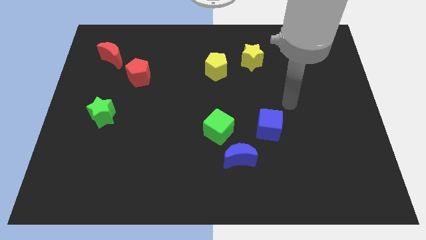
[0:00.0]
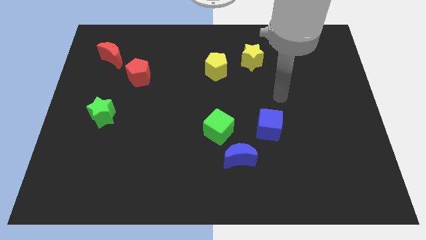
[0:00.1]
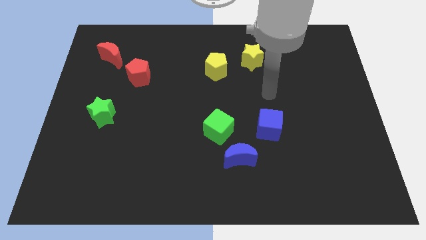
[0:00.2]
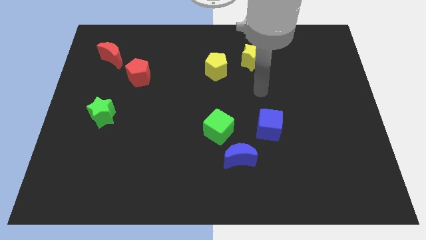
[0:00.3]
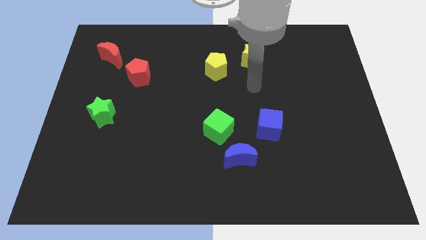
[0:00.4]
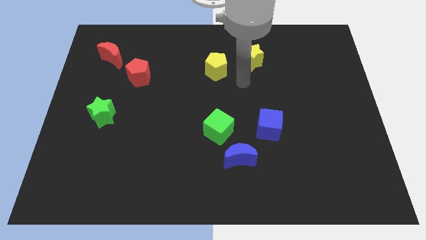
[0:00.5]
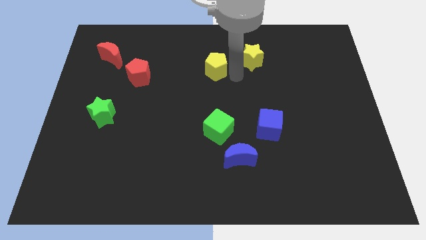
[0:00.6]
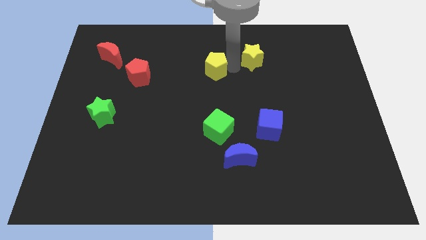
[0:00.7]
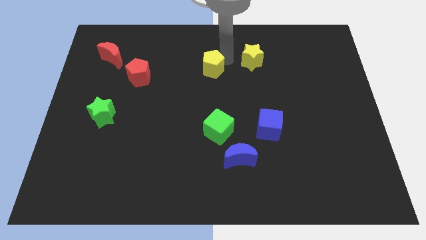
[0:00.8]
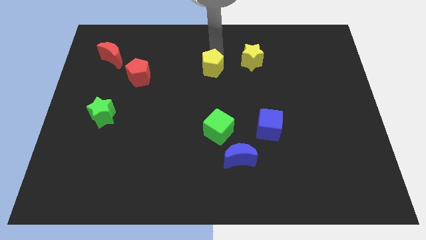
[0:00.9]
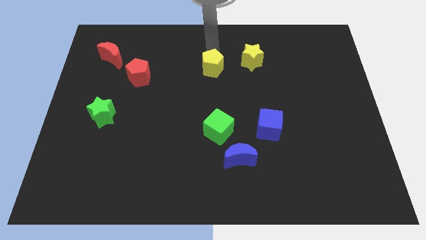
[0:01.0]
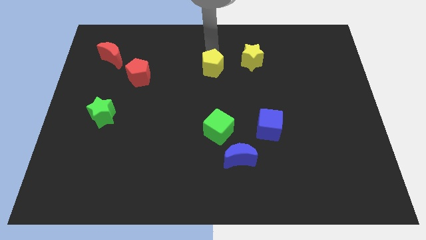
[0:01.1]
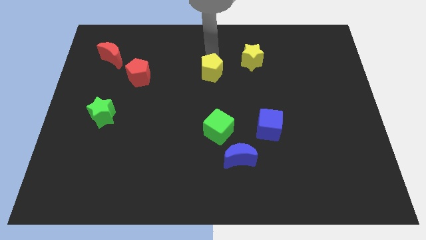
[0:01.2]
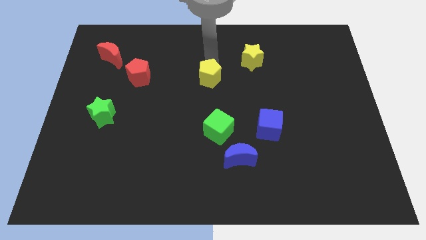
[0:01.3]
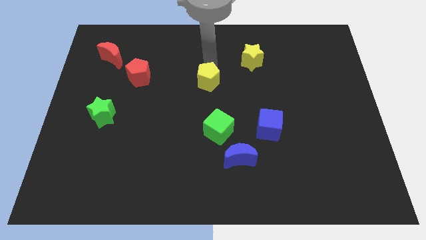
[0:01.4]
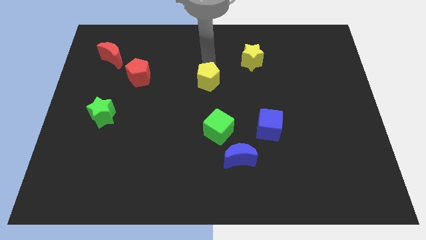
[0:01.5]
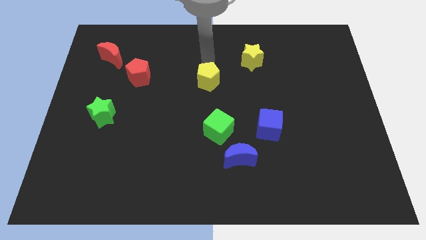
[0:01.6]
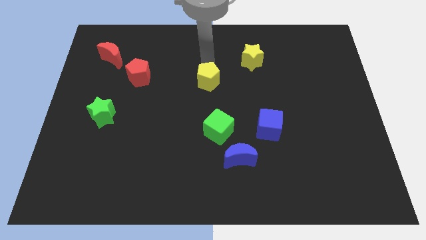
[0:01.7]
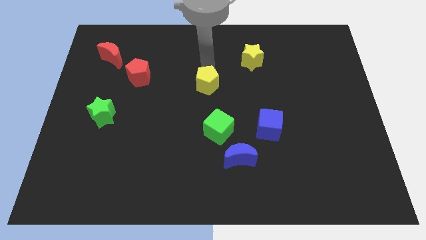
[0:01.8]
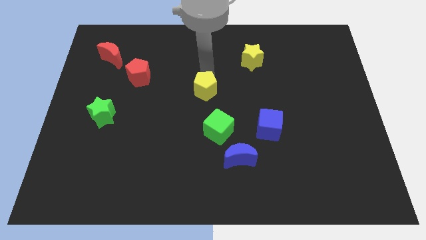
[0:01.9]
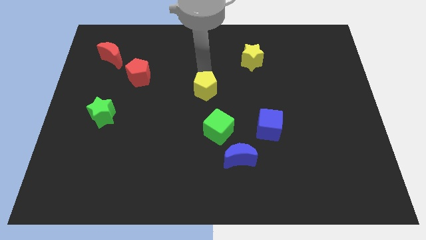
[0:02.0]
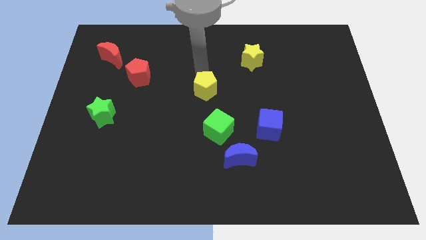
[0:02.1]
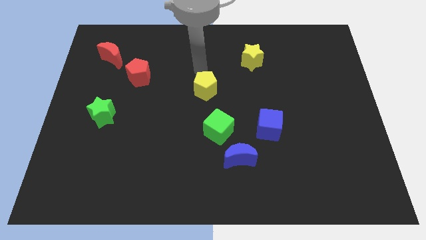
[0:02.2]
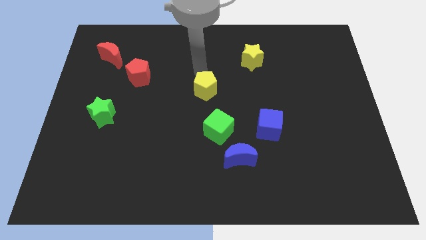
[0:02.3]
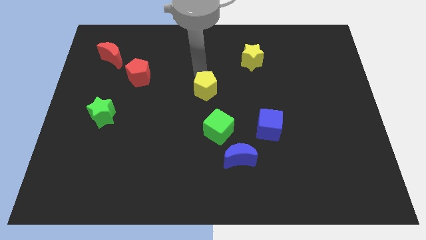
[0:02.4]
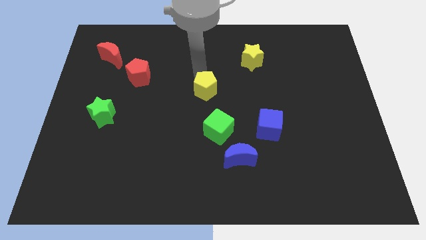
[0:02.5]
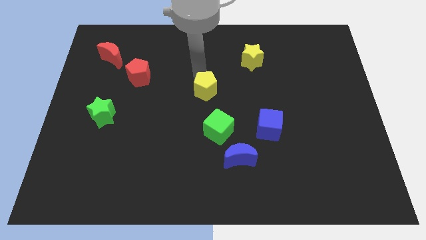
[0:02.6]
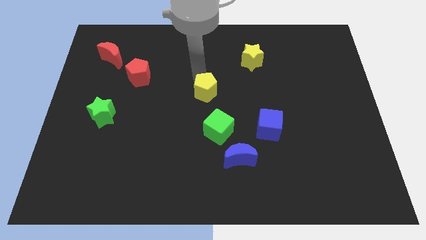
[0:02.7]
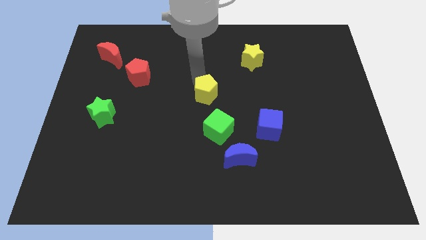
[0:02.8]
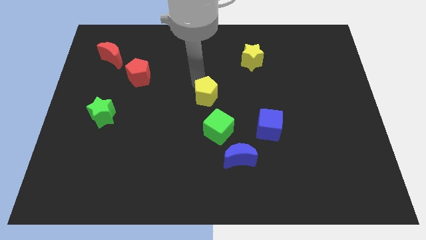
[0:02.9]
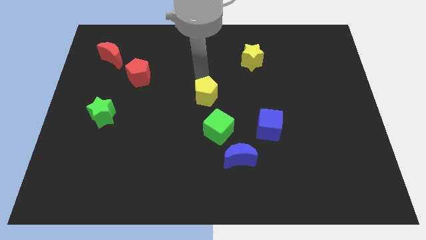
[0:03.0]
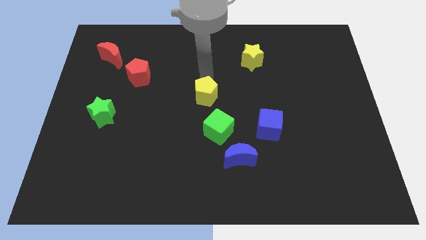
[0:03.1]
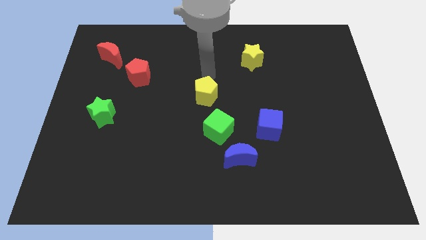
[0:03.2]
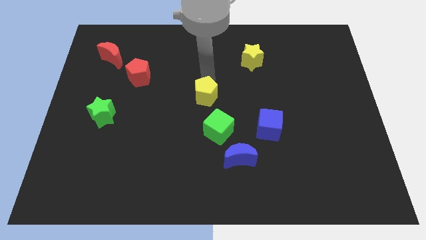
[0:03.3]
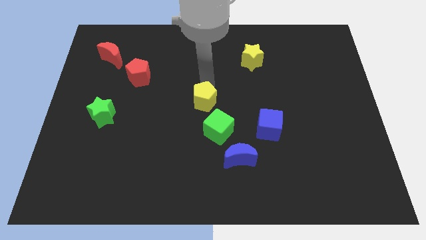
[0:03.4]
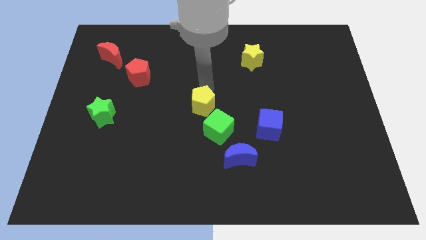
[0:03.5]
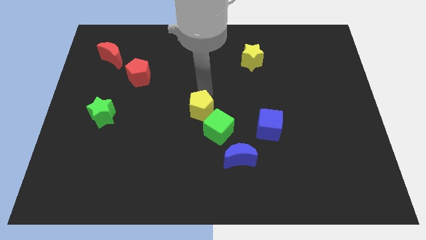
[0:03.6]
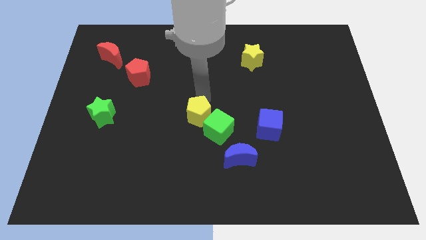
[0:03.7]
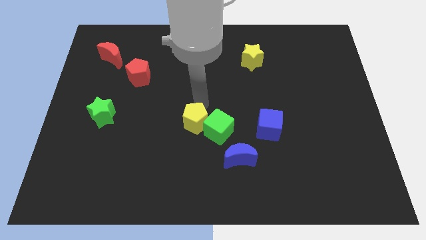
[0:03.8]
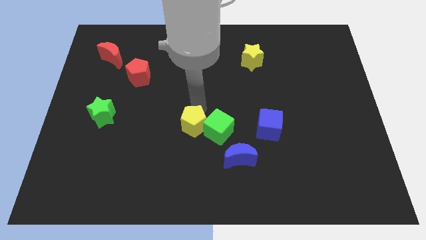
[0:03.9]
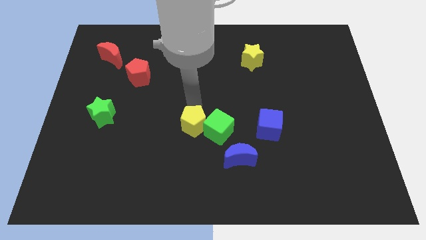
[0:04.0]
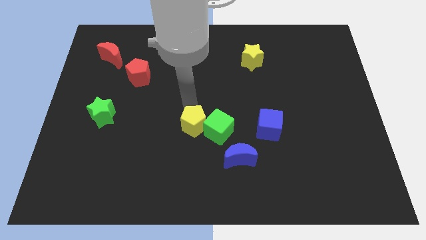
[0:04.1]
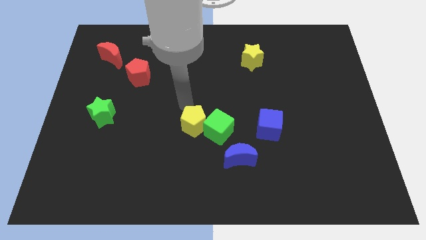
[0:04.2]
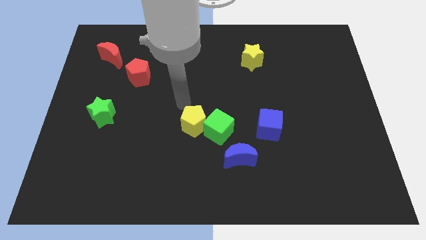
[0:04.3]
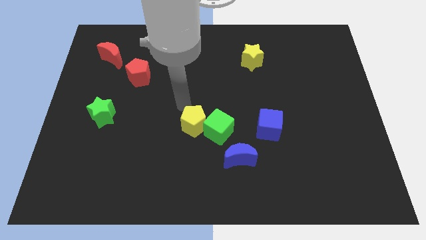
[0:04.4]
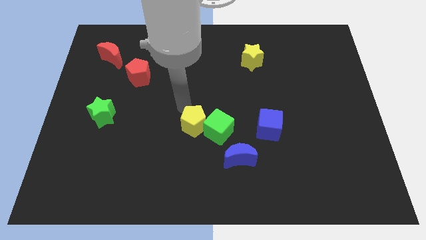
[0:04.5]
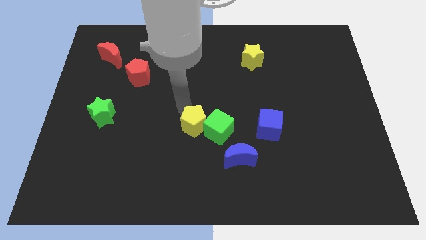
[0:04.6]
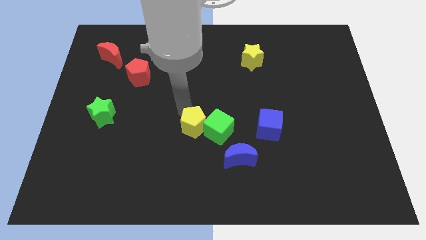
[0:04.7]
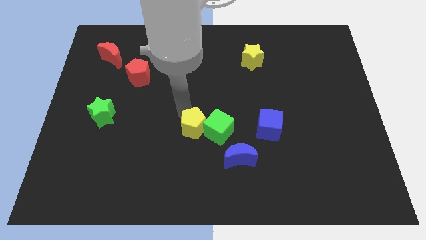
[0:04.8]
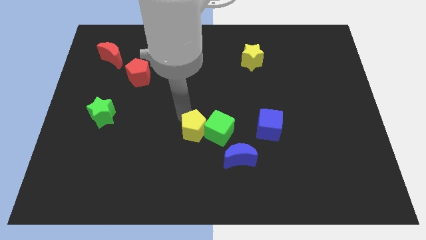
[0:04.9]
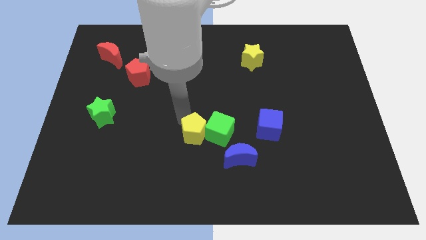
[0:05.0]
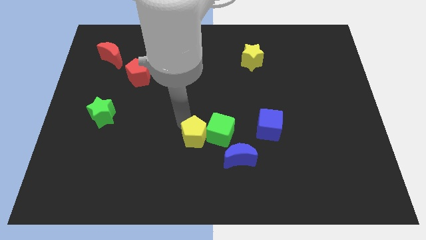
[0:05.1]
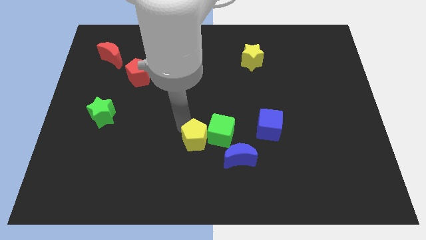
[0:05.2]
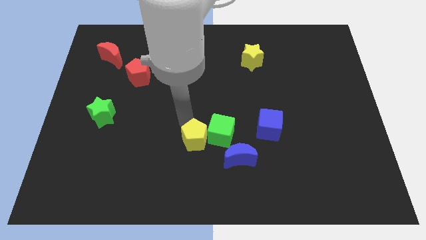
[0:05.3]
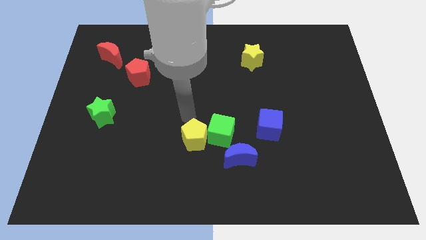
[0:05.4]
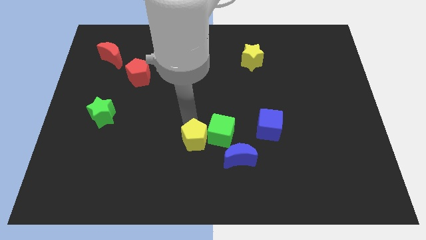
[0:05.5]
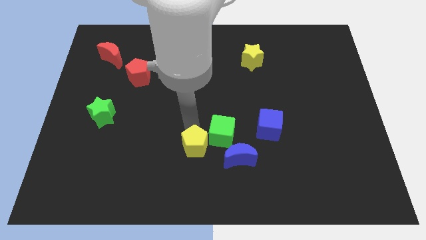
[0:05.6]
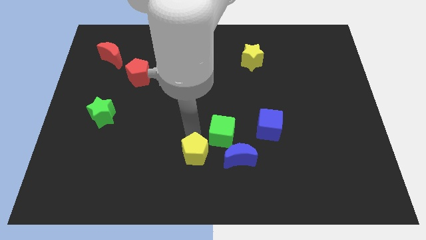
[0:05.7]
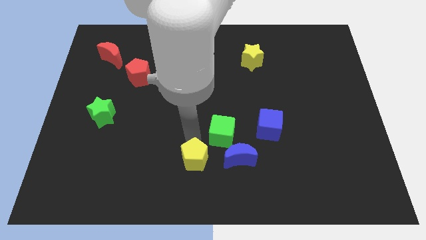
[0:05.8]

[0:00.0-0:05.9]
slide the yellow pentagon to the bottom side

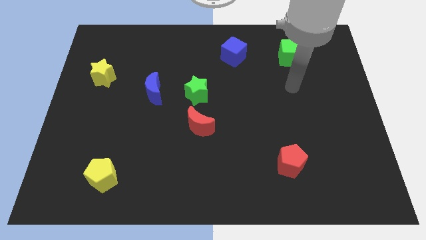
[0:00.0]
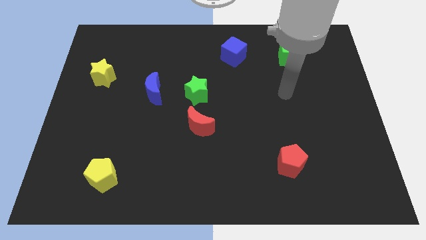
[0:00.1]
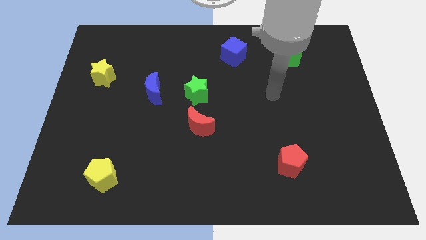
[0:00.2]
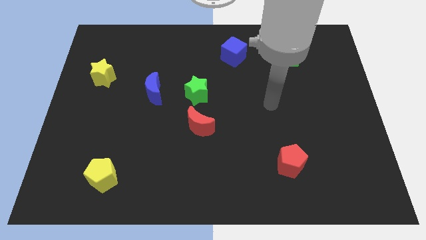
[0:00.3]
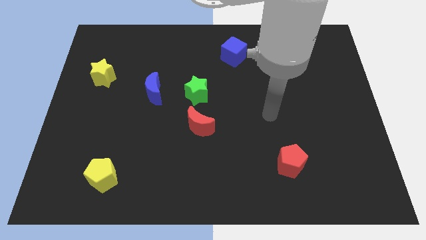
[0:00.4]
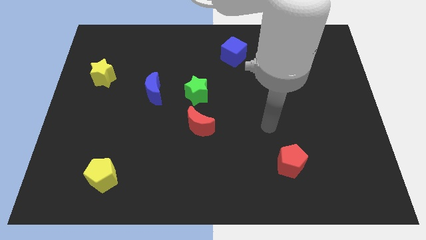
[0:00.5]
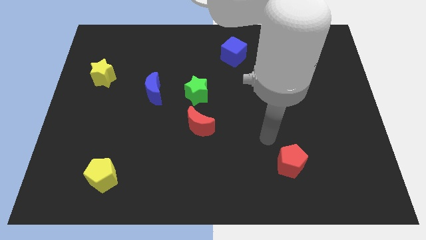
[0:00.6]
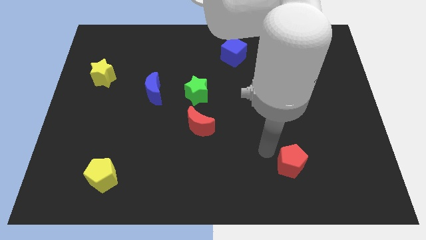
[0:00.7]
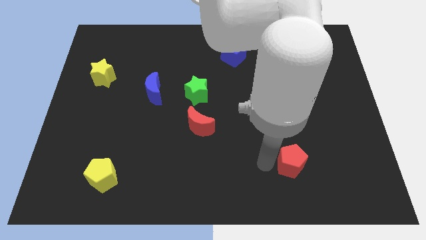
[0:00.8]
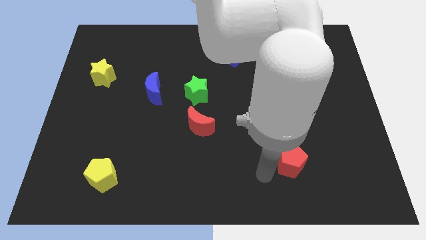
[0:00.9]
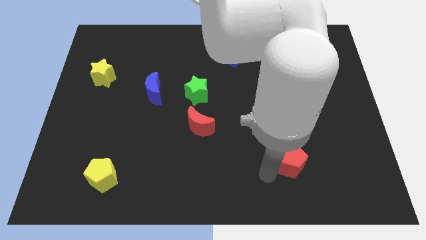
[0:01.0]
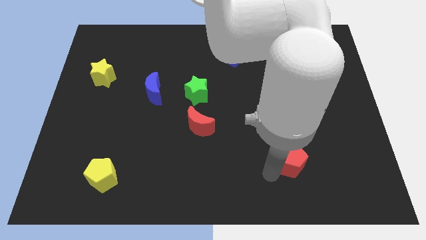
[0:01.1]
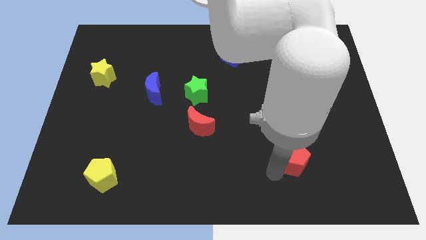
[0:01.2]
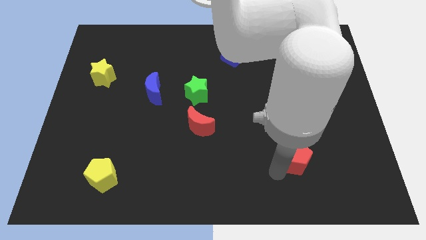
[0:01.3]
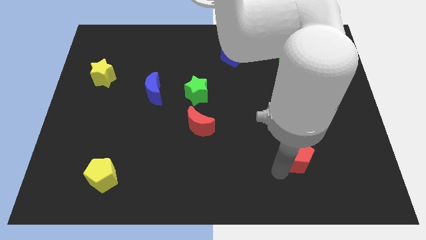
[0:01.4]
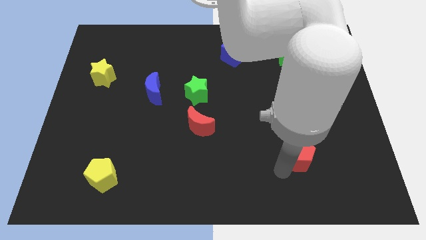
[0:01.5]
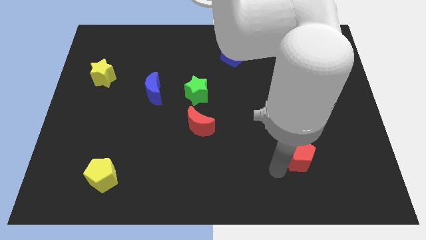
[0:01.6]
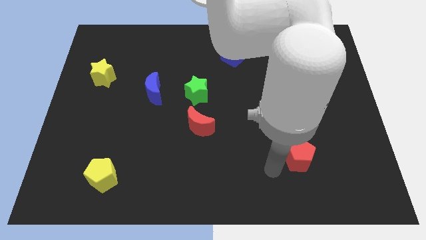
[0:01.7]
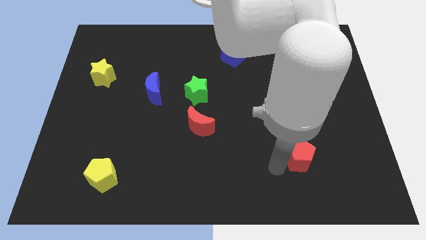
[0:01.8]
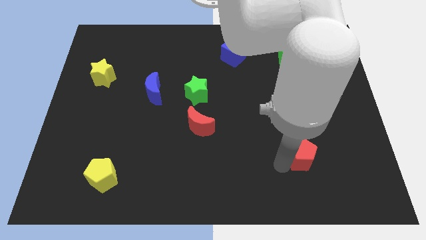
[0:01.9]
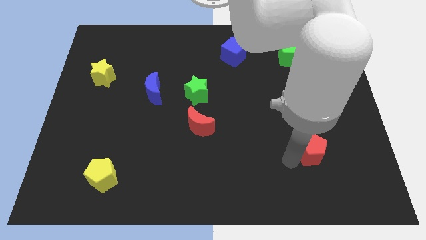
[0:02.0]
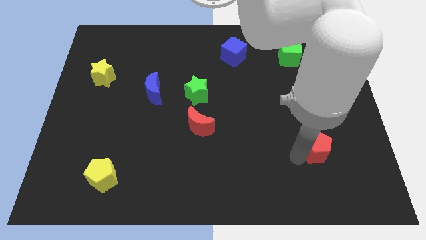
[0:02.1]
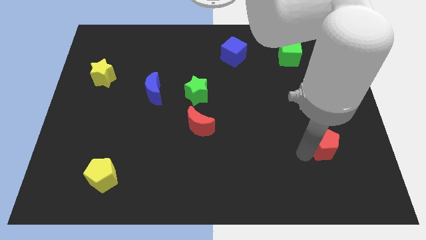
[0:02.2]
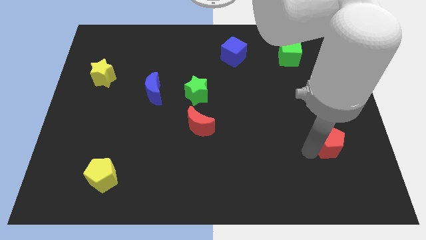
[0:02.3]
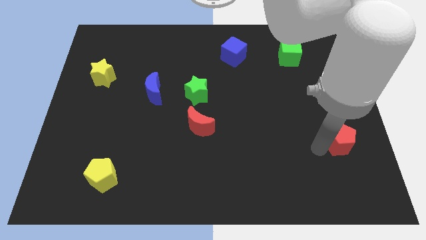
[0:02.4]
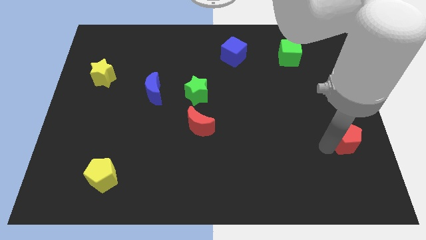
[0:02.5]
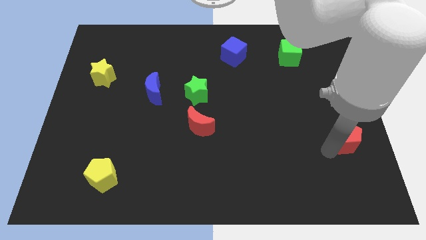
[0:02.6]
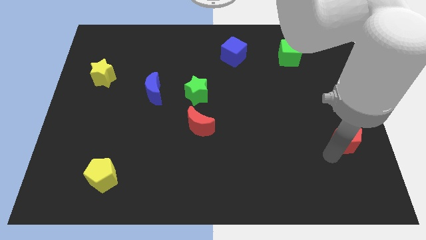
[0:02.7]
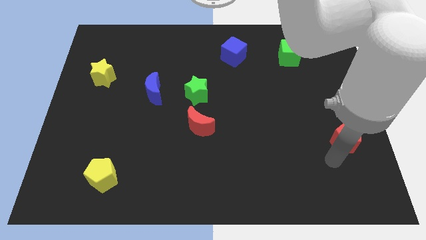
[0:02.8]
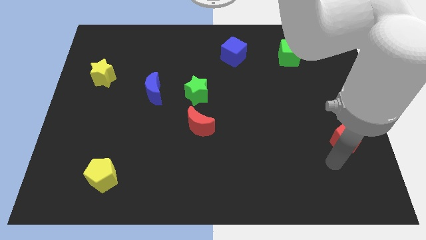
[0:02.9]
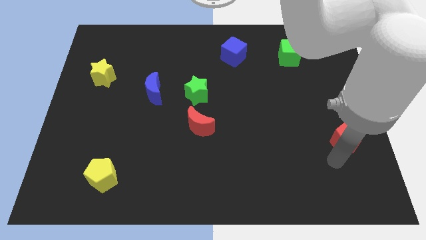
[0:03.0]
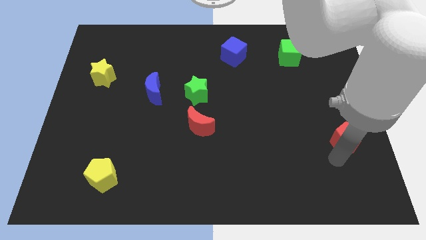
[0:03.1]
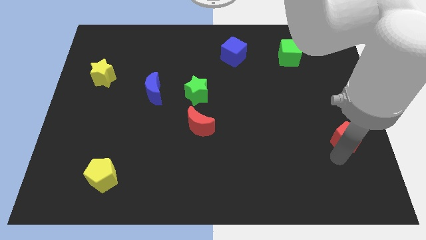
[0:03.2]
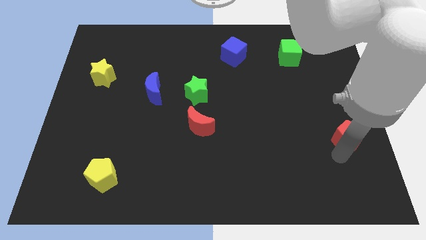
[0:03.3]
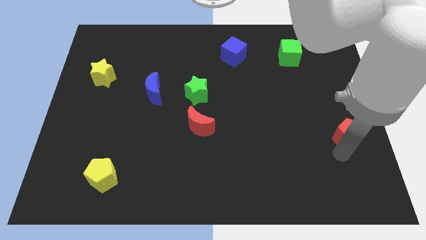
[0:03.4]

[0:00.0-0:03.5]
move the red pentagon to the right side of the board
